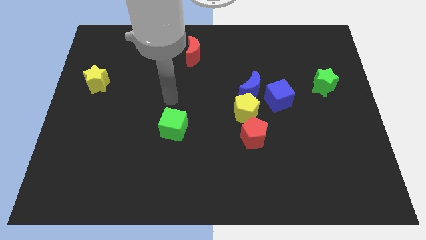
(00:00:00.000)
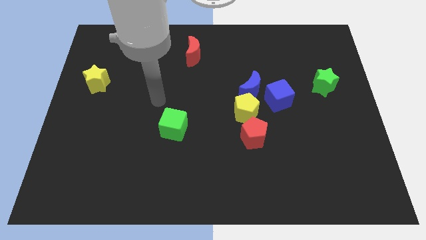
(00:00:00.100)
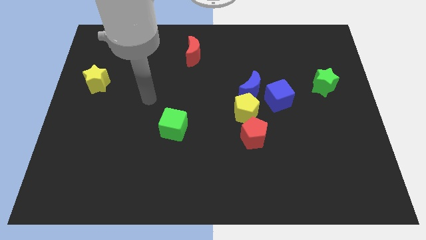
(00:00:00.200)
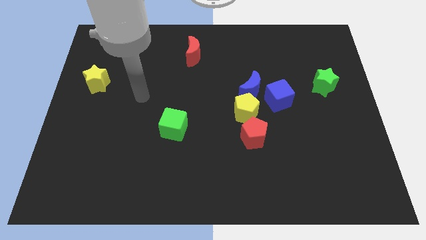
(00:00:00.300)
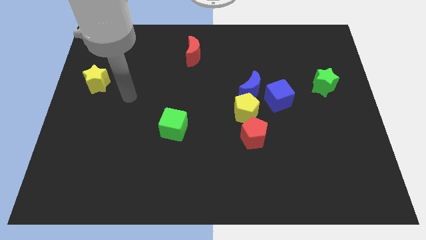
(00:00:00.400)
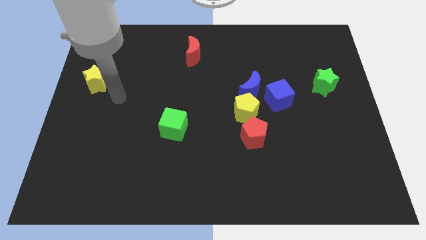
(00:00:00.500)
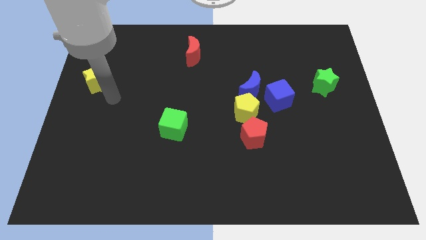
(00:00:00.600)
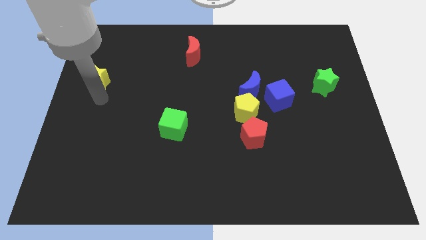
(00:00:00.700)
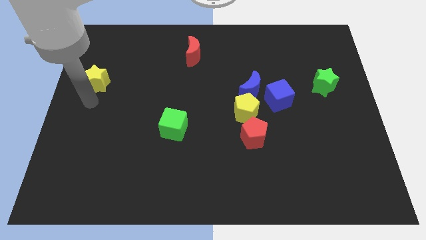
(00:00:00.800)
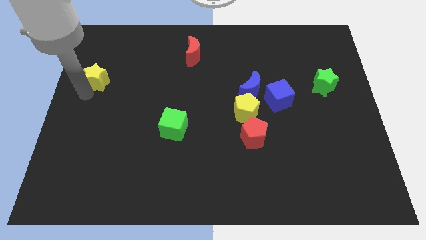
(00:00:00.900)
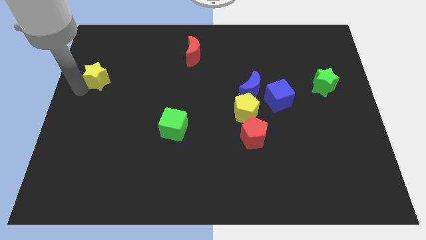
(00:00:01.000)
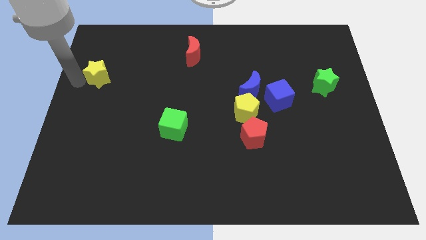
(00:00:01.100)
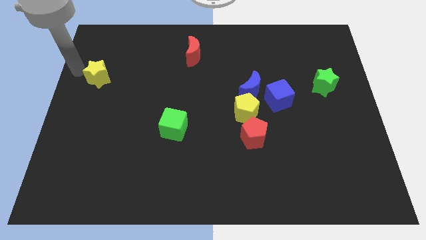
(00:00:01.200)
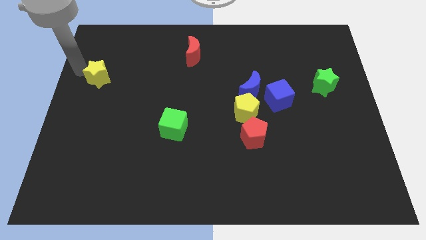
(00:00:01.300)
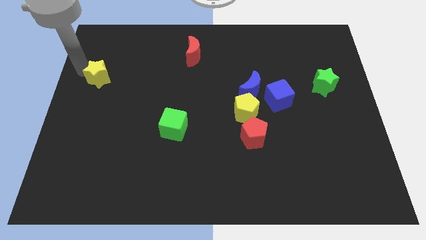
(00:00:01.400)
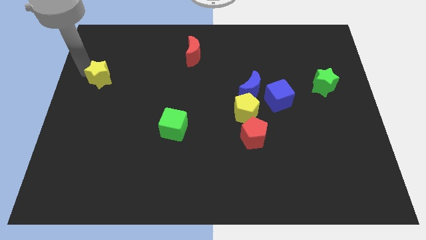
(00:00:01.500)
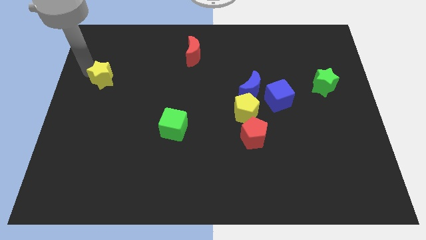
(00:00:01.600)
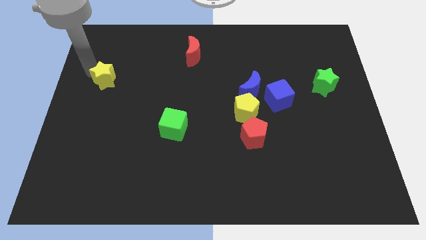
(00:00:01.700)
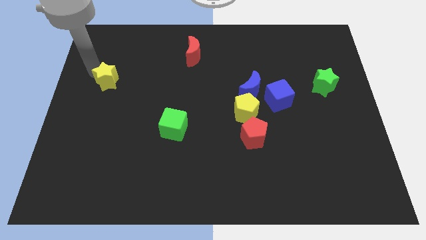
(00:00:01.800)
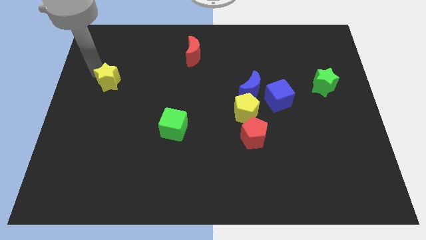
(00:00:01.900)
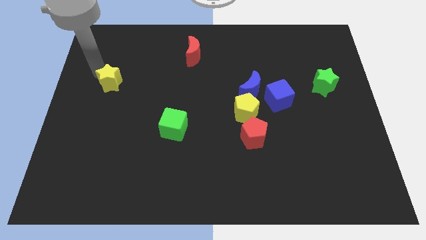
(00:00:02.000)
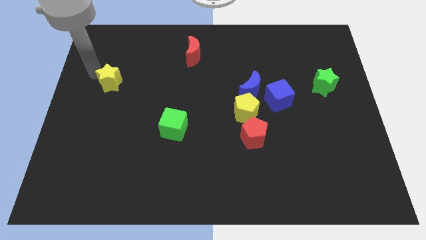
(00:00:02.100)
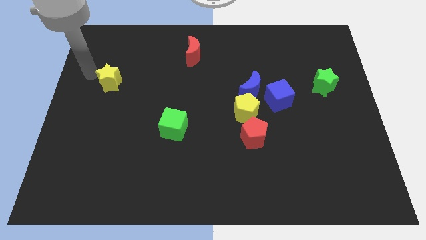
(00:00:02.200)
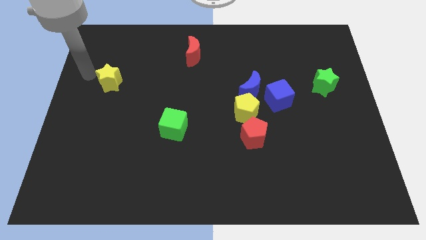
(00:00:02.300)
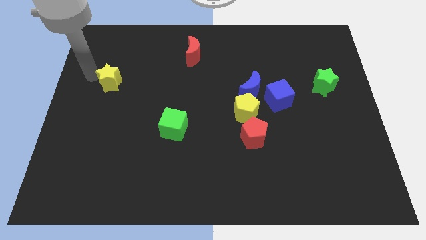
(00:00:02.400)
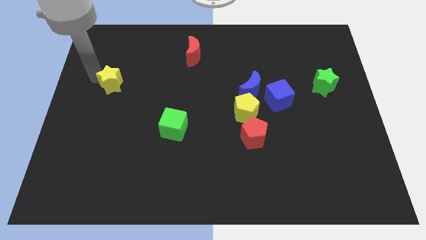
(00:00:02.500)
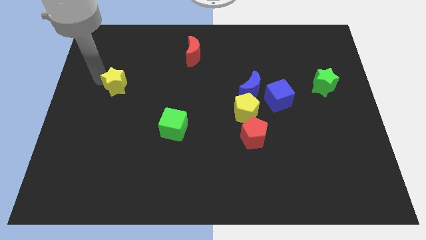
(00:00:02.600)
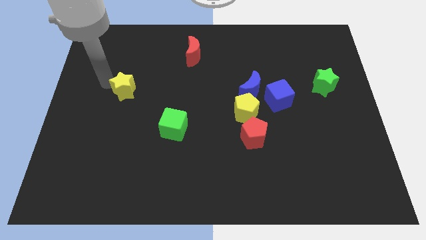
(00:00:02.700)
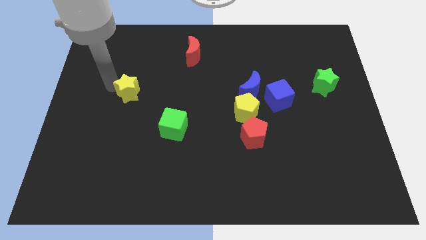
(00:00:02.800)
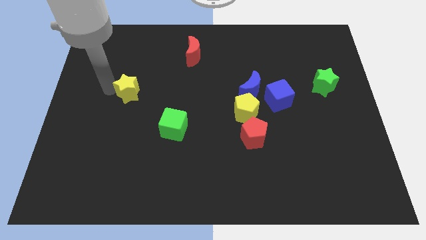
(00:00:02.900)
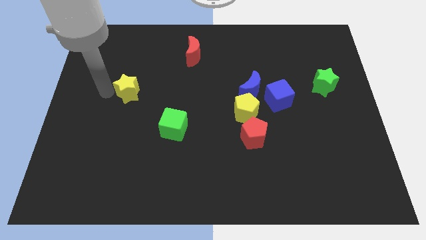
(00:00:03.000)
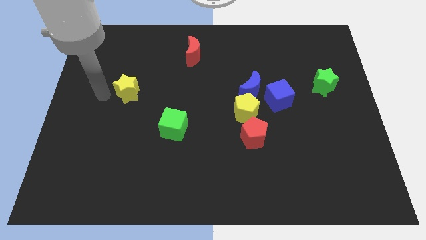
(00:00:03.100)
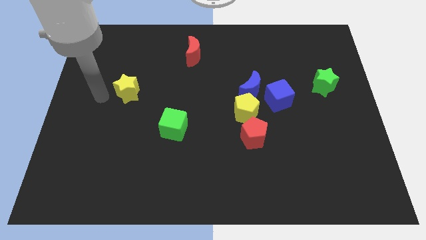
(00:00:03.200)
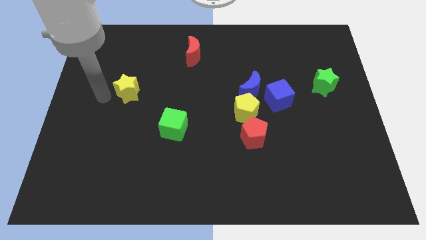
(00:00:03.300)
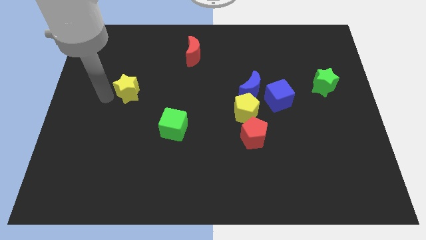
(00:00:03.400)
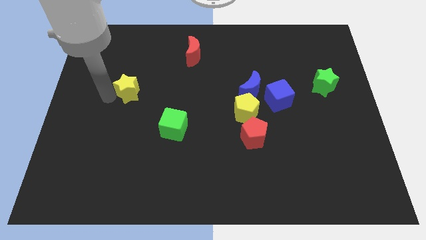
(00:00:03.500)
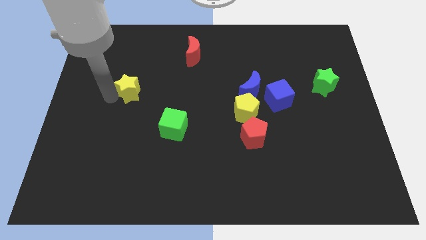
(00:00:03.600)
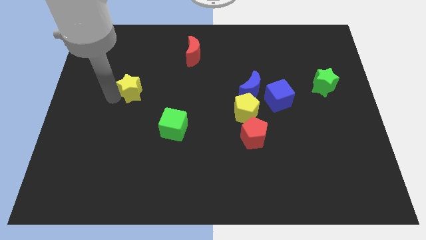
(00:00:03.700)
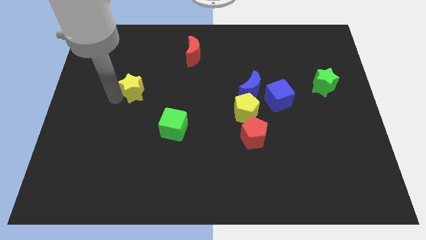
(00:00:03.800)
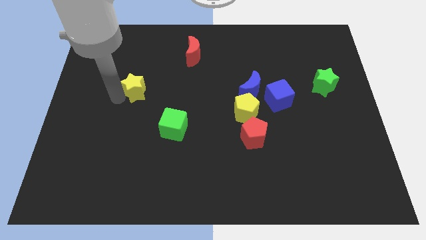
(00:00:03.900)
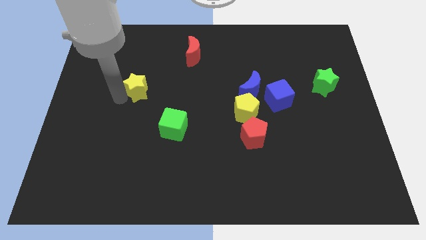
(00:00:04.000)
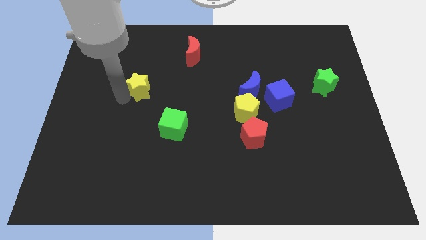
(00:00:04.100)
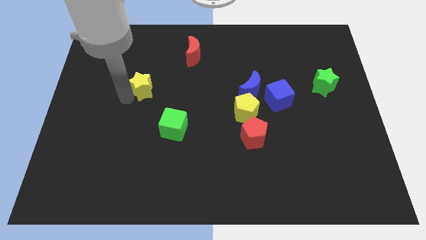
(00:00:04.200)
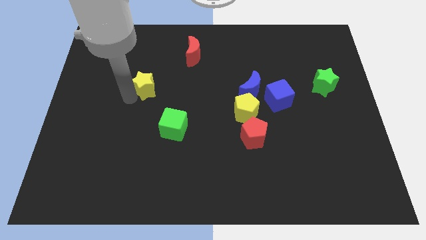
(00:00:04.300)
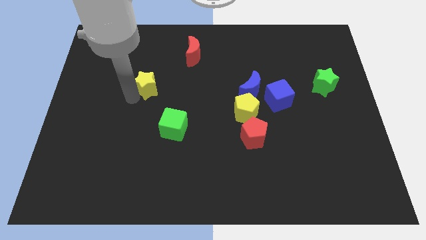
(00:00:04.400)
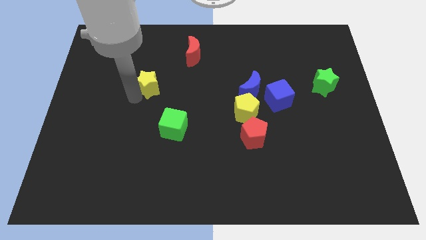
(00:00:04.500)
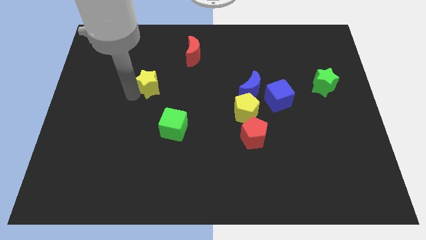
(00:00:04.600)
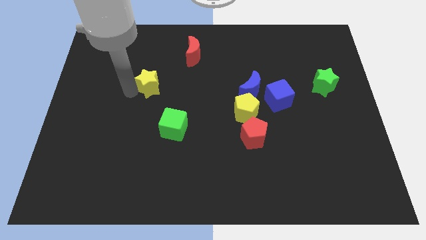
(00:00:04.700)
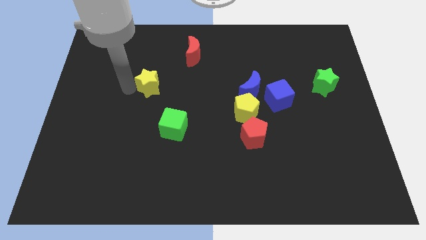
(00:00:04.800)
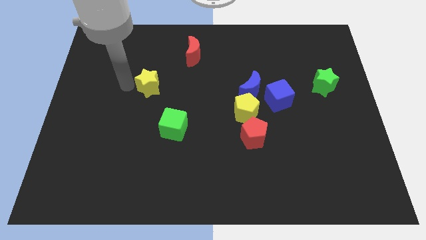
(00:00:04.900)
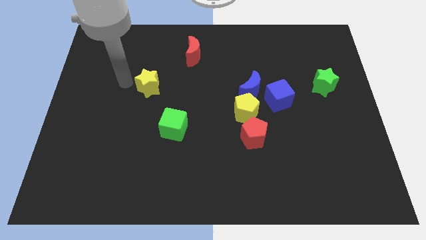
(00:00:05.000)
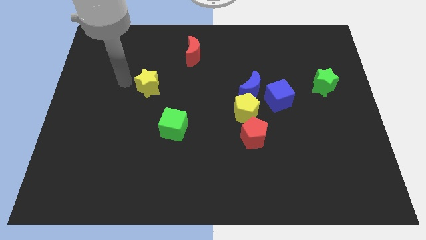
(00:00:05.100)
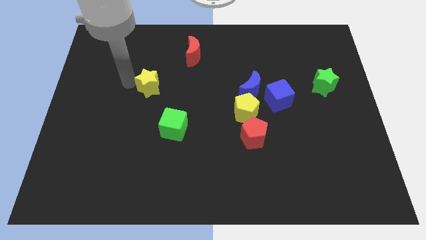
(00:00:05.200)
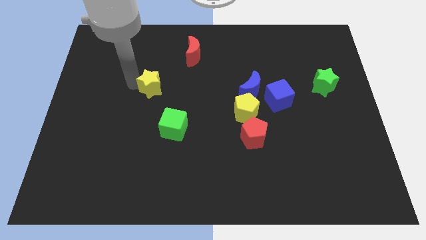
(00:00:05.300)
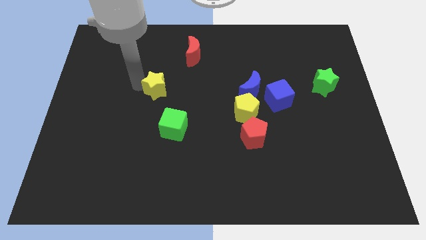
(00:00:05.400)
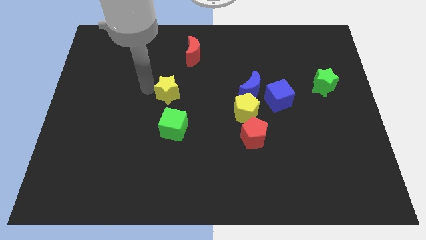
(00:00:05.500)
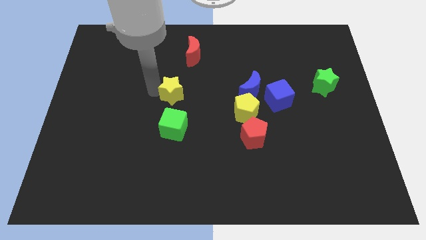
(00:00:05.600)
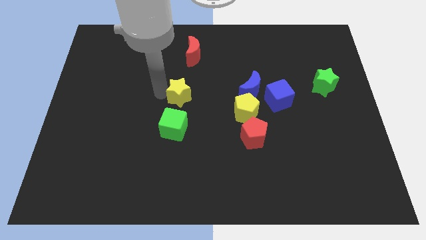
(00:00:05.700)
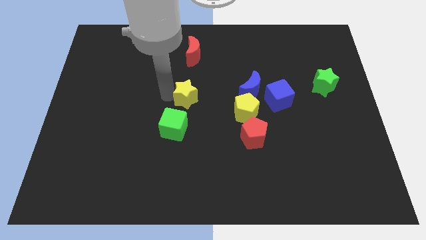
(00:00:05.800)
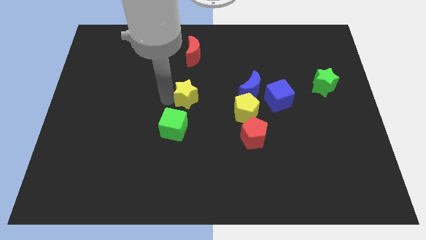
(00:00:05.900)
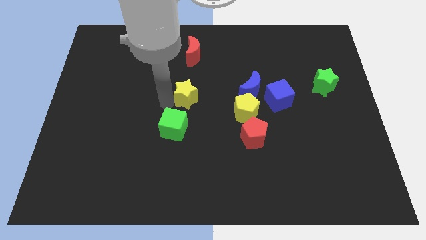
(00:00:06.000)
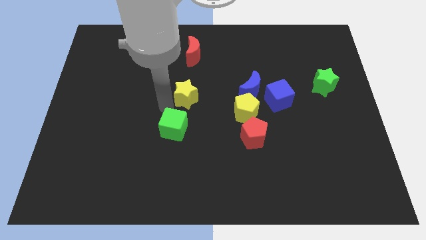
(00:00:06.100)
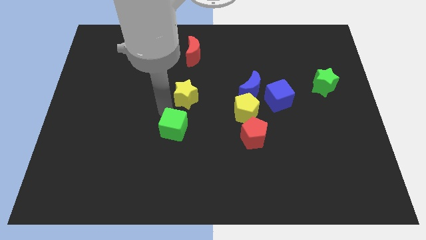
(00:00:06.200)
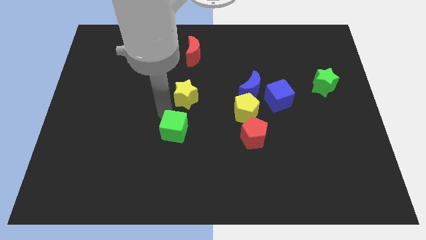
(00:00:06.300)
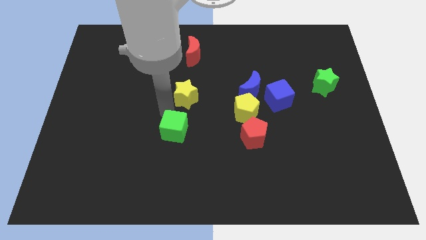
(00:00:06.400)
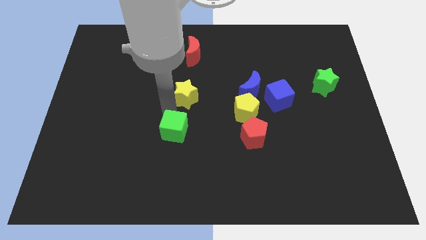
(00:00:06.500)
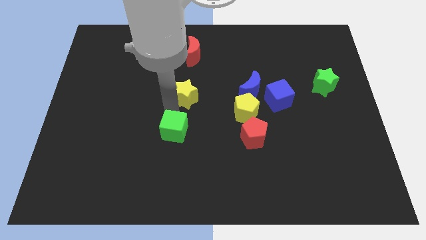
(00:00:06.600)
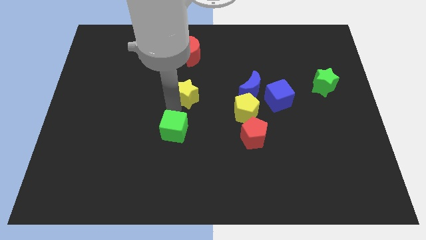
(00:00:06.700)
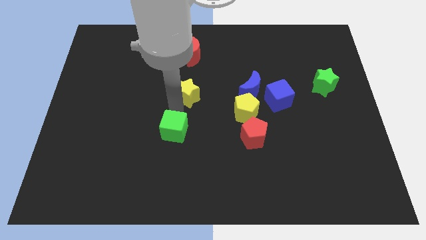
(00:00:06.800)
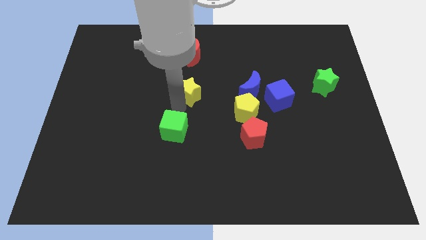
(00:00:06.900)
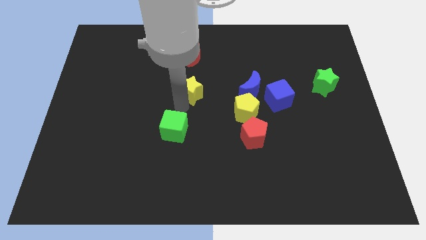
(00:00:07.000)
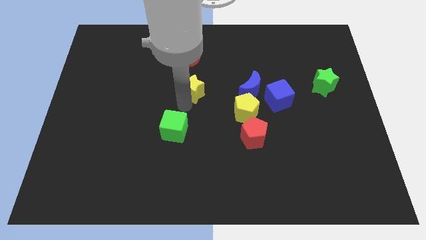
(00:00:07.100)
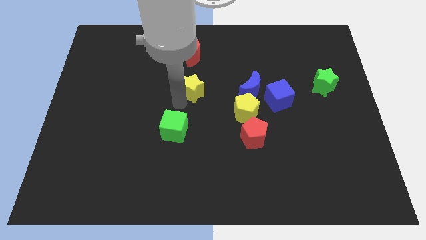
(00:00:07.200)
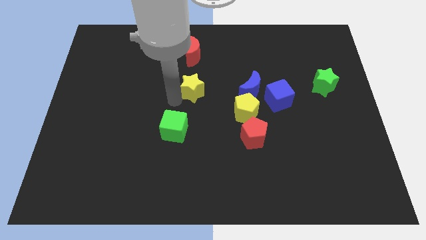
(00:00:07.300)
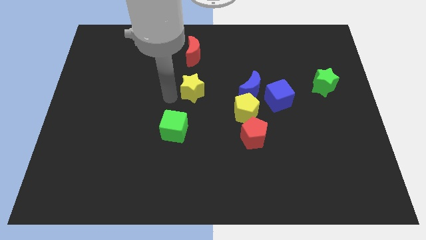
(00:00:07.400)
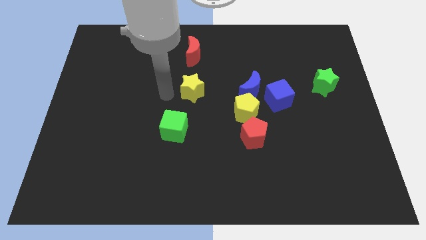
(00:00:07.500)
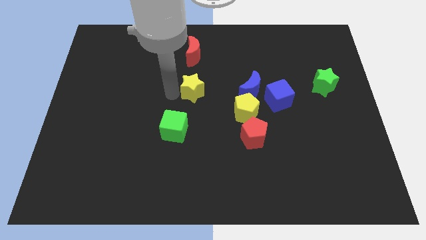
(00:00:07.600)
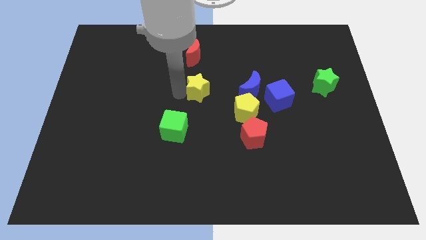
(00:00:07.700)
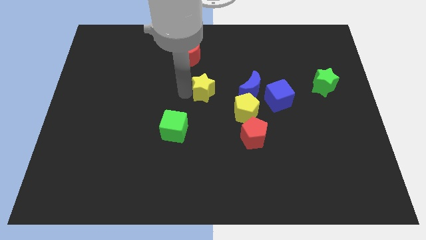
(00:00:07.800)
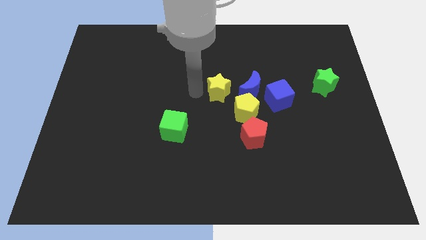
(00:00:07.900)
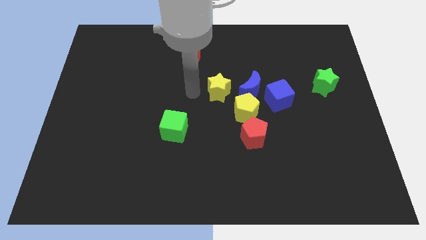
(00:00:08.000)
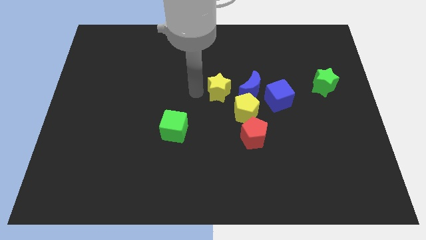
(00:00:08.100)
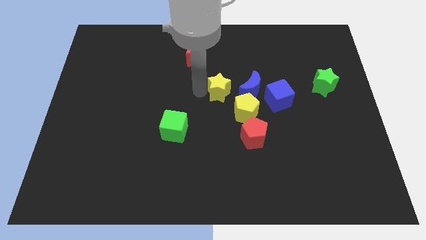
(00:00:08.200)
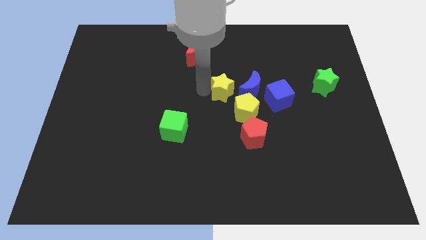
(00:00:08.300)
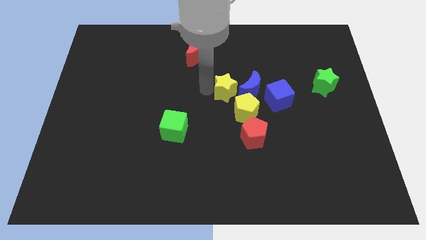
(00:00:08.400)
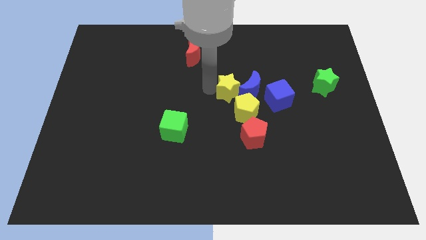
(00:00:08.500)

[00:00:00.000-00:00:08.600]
move the yellow star close to the blue moon
